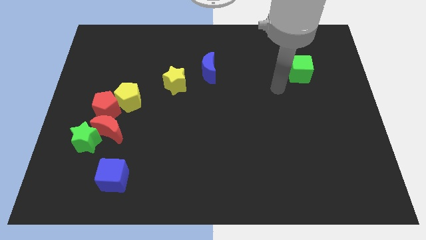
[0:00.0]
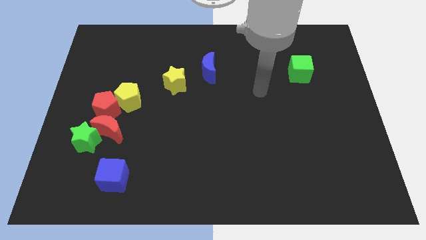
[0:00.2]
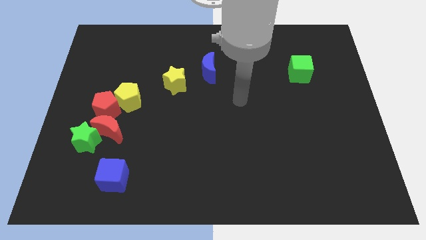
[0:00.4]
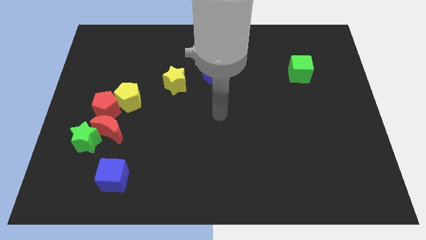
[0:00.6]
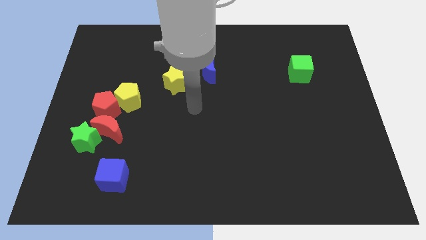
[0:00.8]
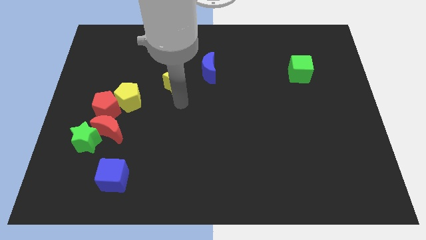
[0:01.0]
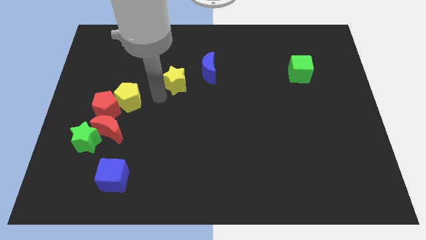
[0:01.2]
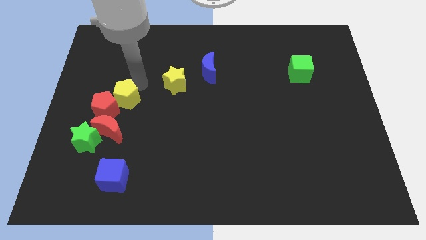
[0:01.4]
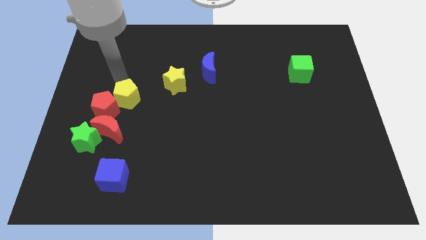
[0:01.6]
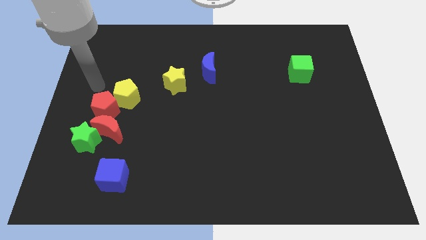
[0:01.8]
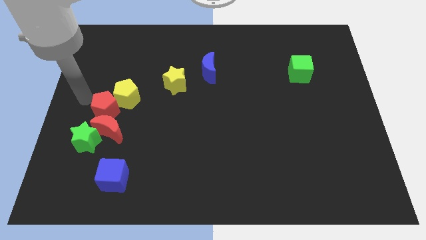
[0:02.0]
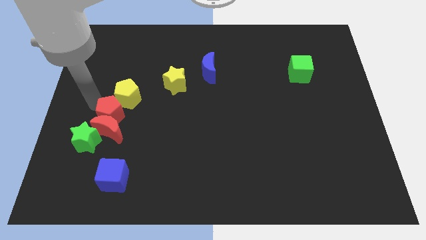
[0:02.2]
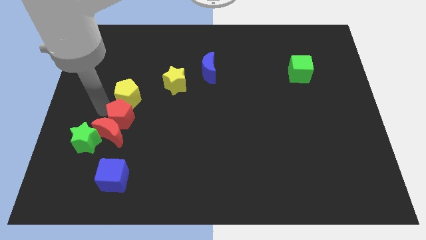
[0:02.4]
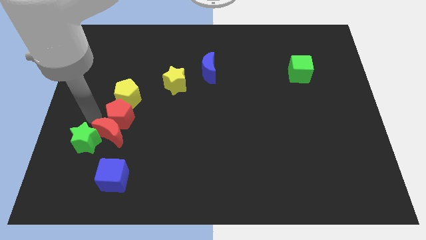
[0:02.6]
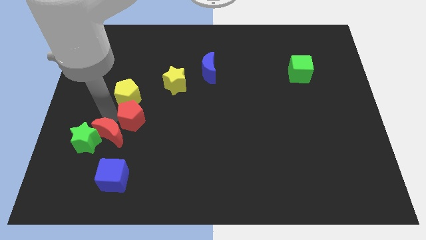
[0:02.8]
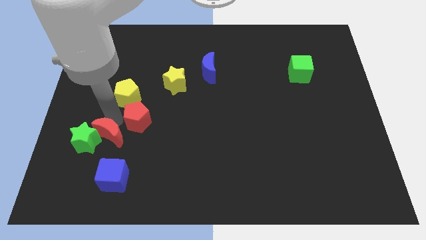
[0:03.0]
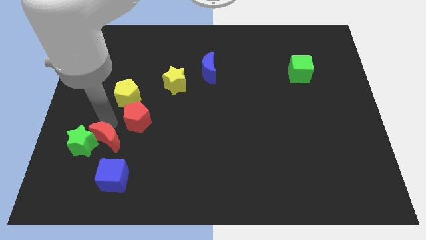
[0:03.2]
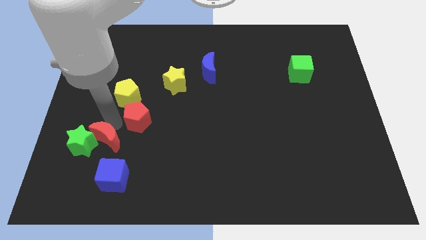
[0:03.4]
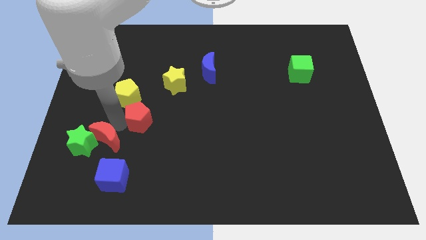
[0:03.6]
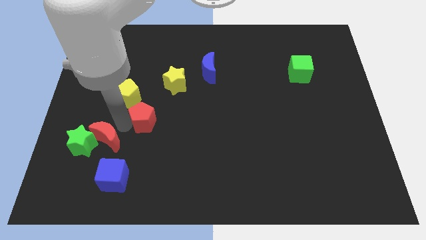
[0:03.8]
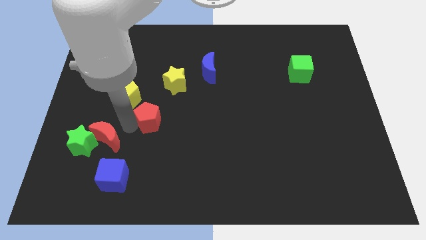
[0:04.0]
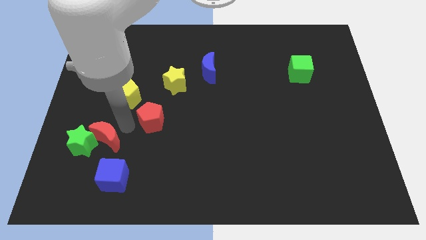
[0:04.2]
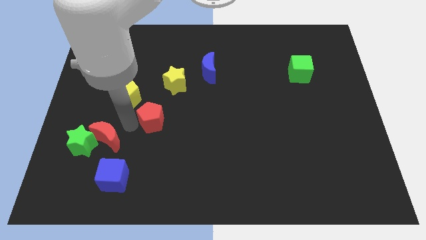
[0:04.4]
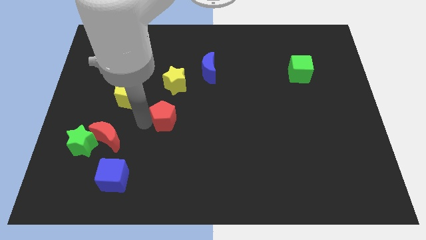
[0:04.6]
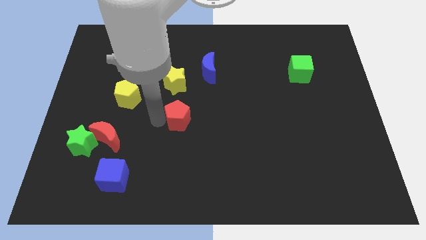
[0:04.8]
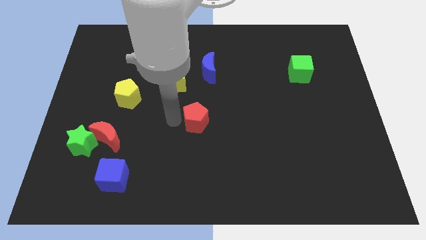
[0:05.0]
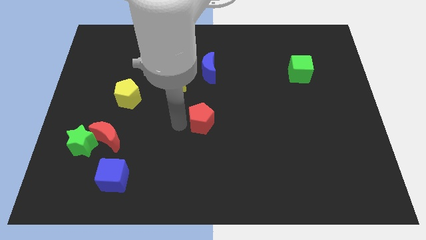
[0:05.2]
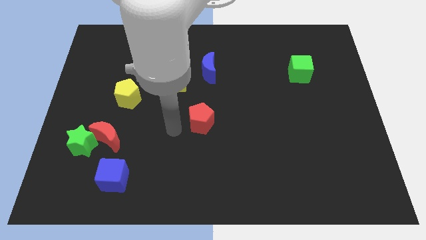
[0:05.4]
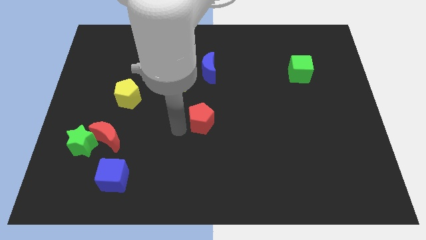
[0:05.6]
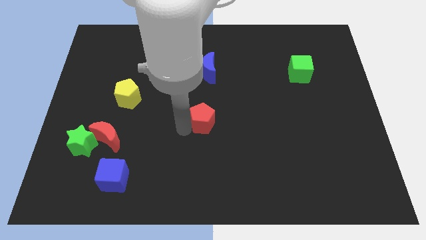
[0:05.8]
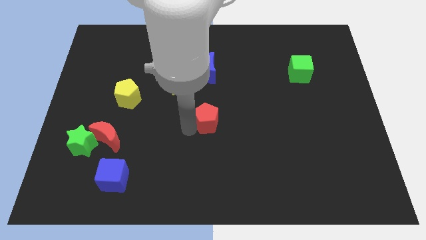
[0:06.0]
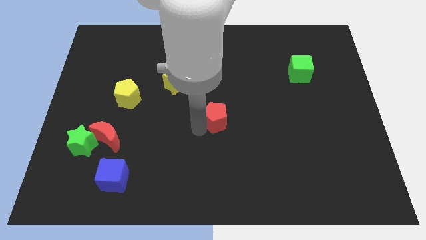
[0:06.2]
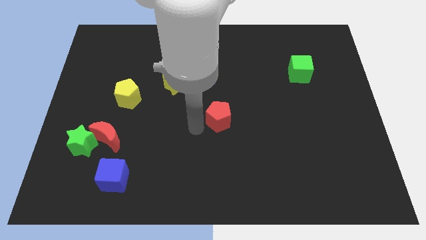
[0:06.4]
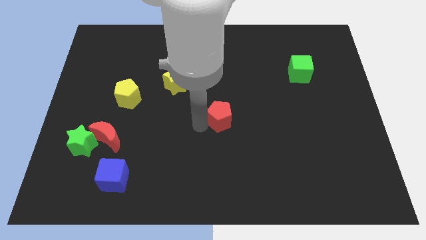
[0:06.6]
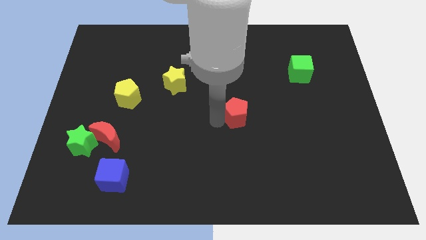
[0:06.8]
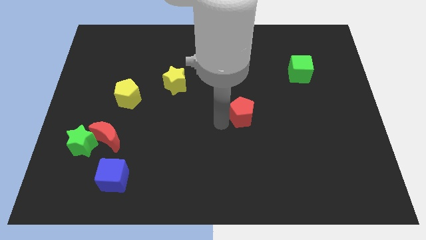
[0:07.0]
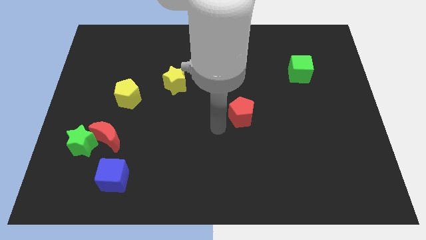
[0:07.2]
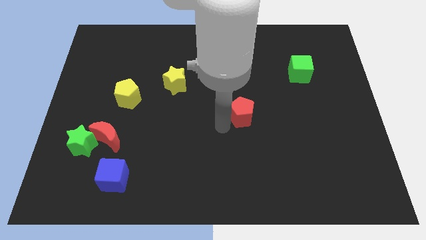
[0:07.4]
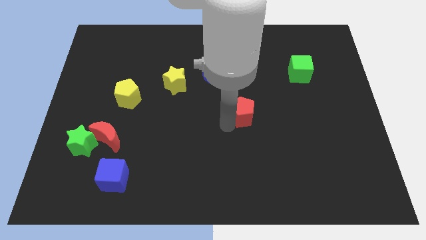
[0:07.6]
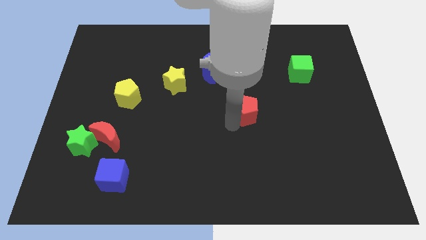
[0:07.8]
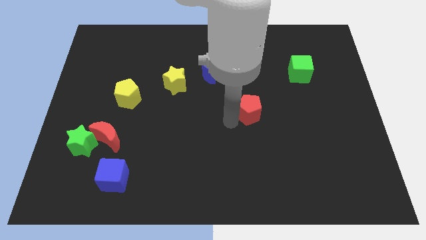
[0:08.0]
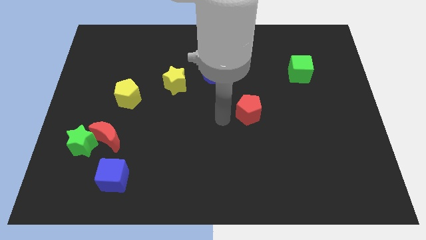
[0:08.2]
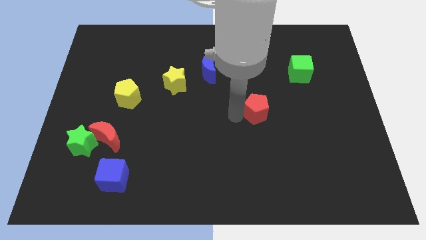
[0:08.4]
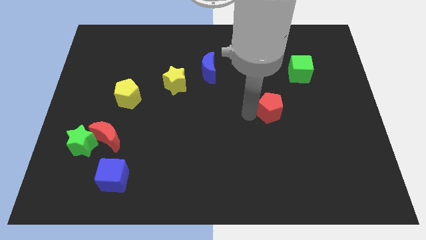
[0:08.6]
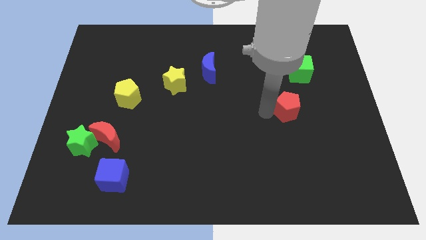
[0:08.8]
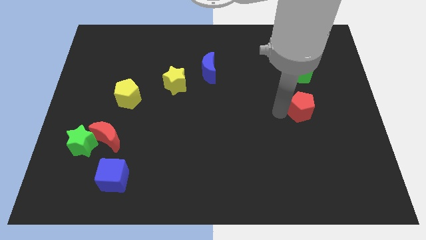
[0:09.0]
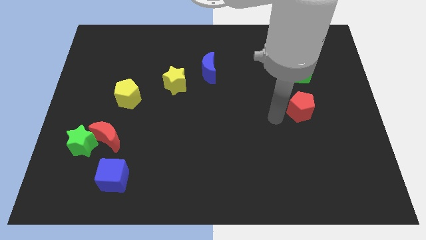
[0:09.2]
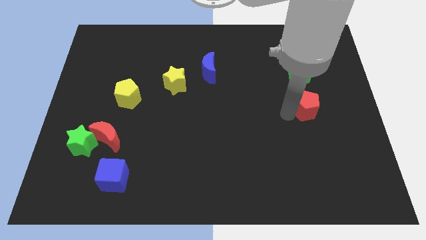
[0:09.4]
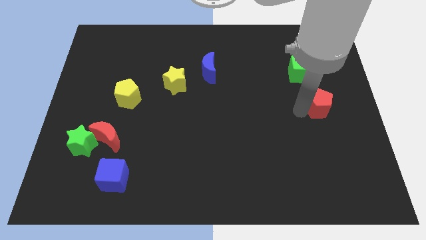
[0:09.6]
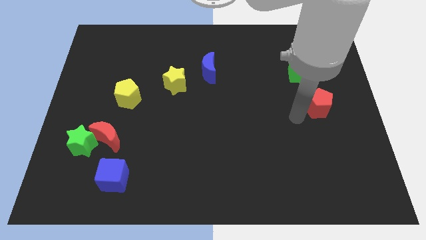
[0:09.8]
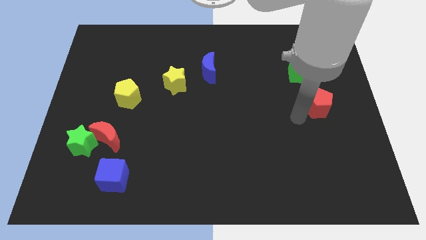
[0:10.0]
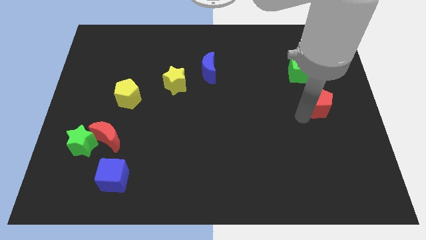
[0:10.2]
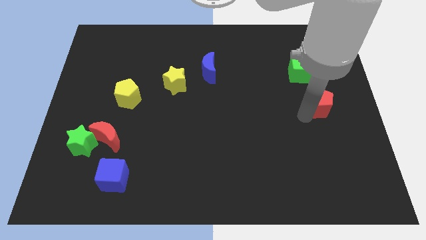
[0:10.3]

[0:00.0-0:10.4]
slide the red pentagon to the center right

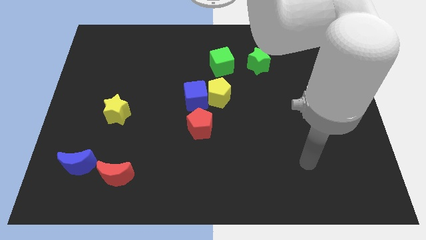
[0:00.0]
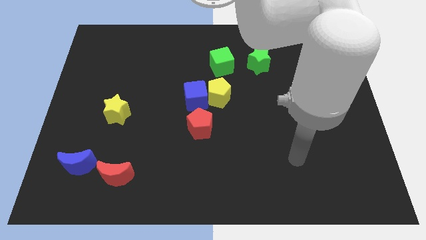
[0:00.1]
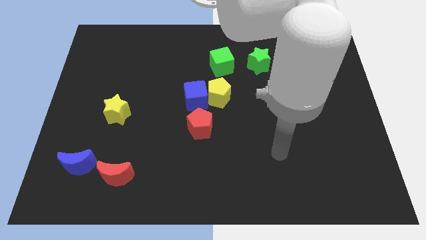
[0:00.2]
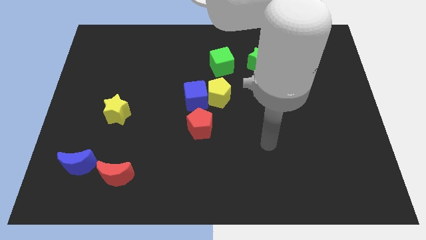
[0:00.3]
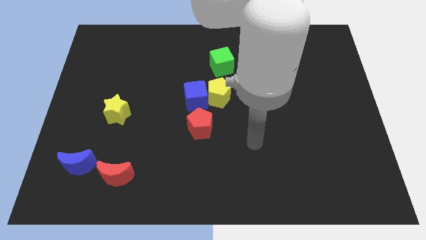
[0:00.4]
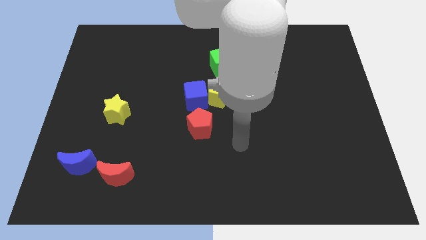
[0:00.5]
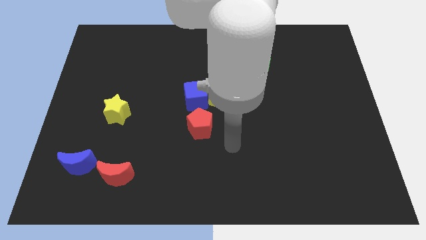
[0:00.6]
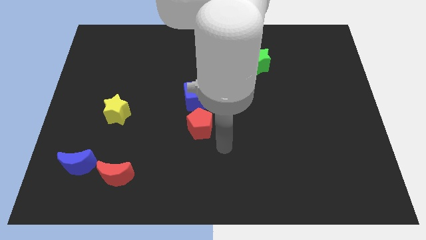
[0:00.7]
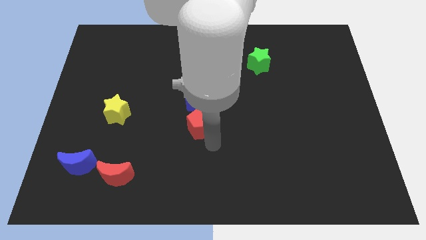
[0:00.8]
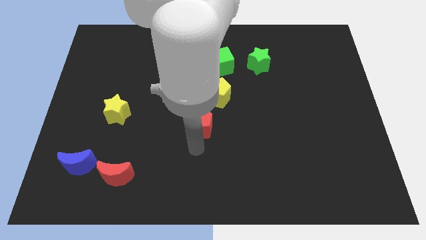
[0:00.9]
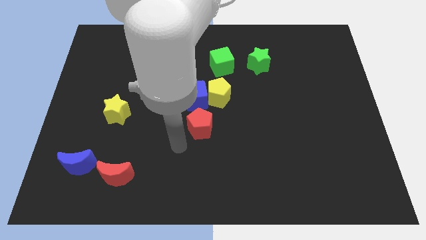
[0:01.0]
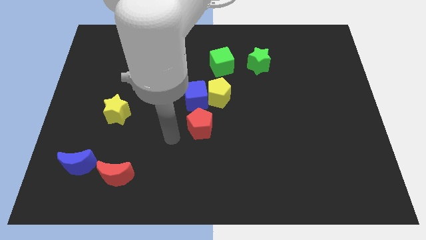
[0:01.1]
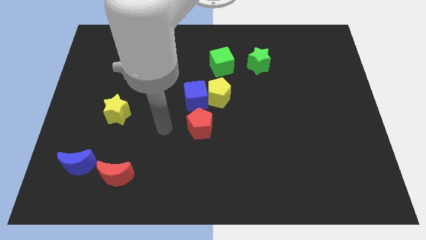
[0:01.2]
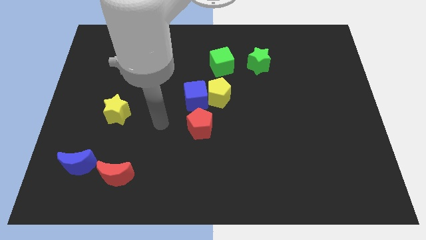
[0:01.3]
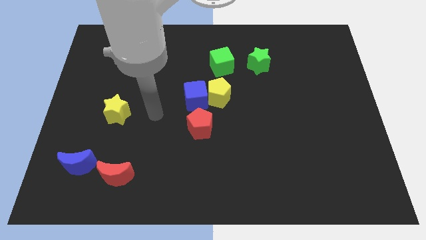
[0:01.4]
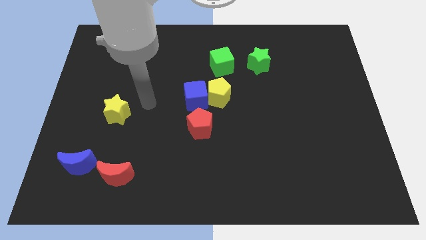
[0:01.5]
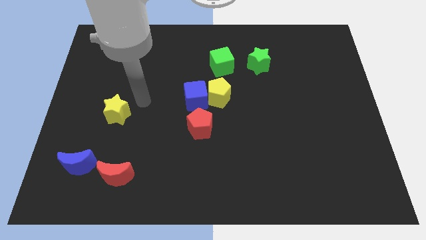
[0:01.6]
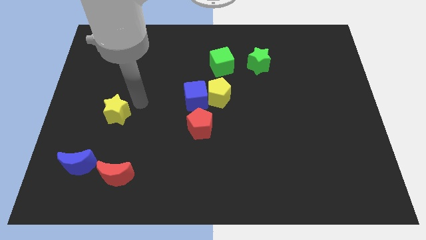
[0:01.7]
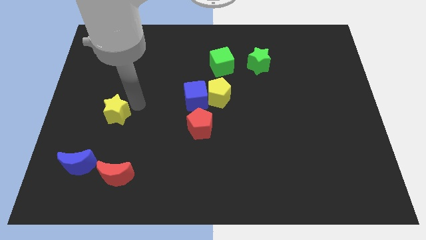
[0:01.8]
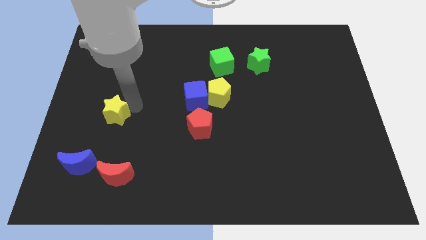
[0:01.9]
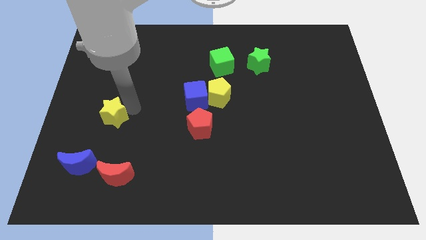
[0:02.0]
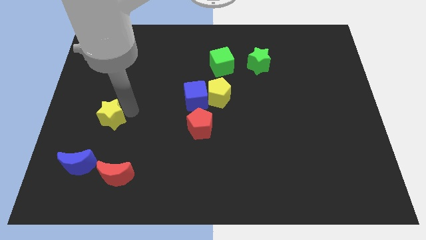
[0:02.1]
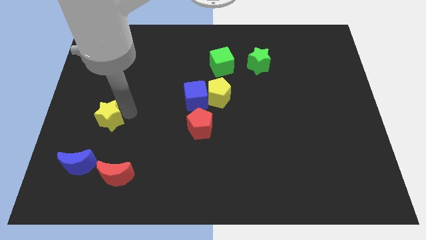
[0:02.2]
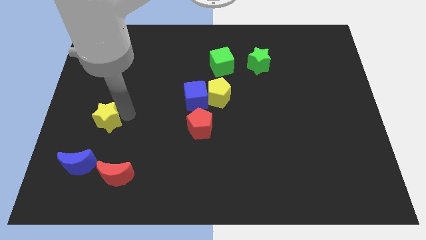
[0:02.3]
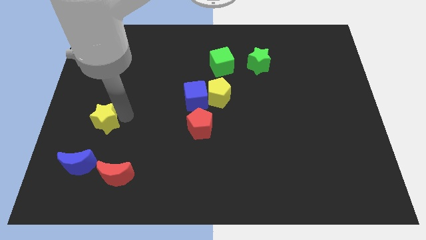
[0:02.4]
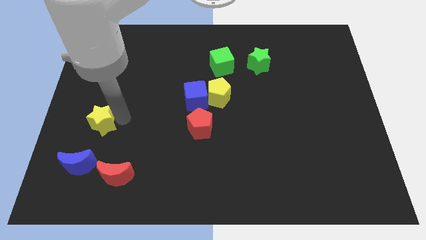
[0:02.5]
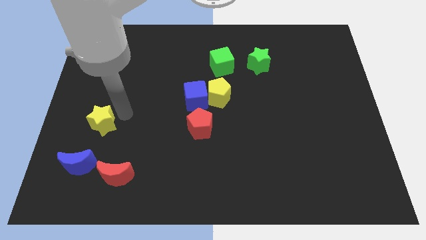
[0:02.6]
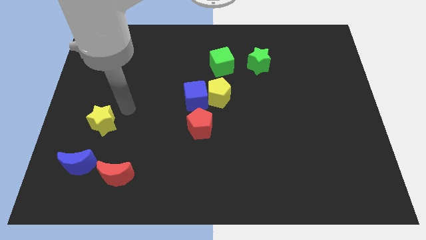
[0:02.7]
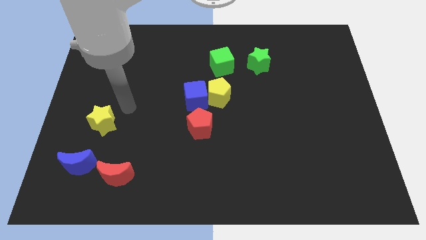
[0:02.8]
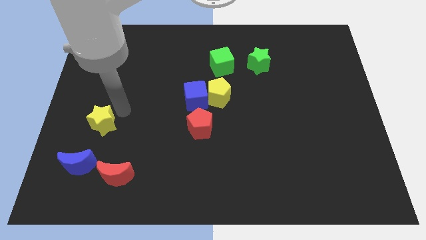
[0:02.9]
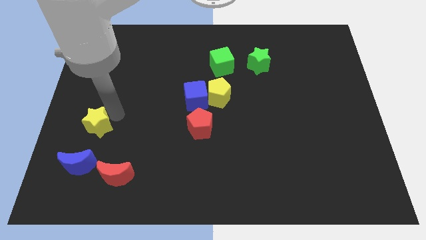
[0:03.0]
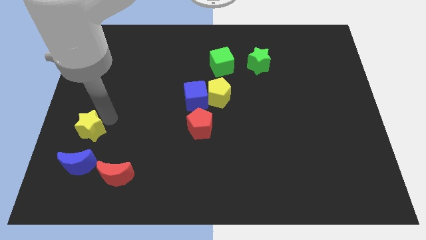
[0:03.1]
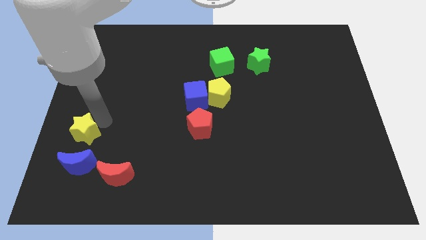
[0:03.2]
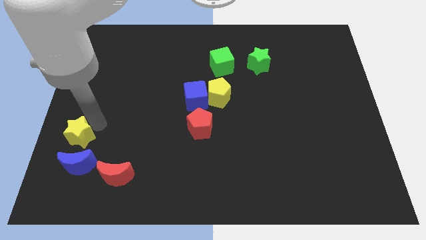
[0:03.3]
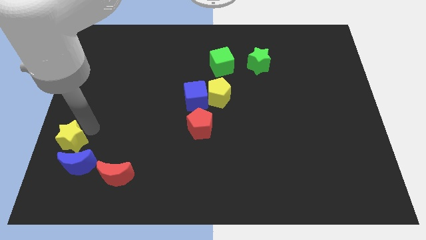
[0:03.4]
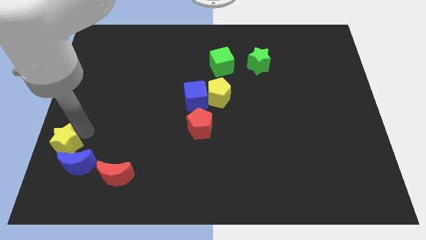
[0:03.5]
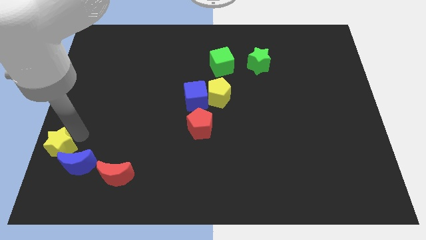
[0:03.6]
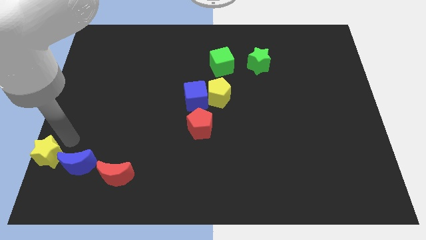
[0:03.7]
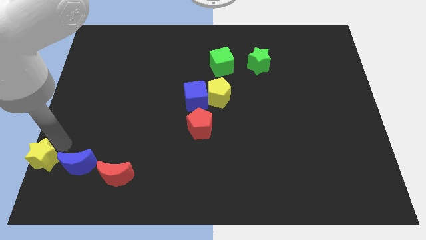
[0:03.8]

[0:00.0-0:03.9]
move the yellow star to the lower left corner
